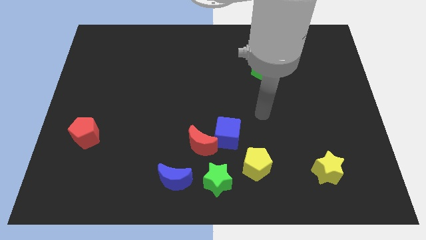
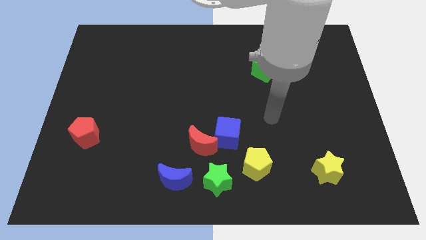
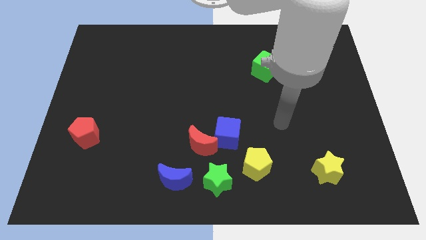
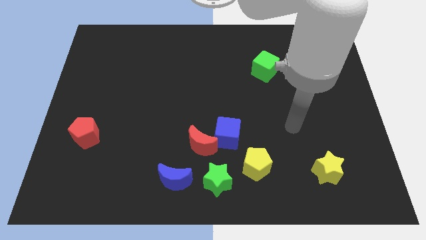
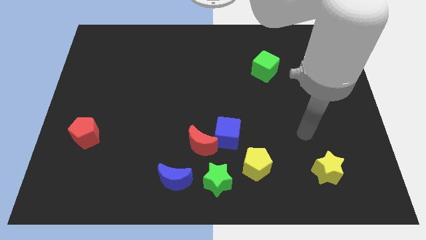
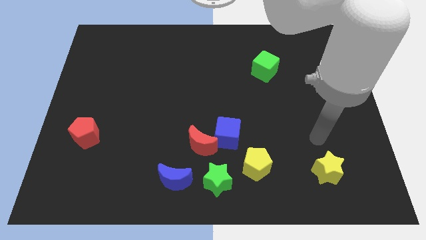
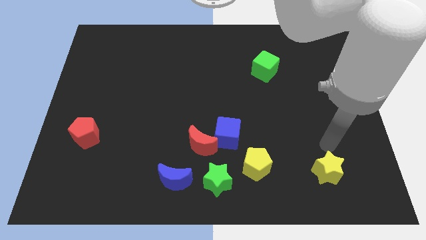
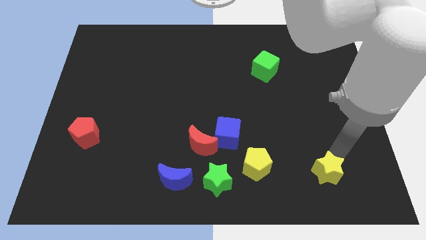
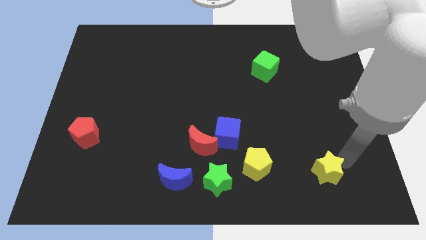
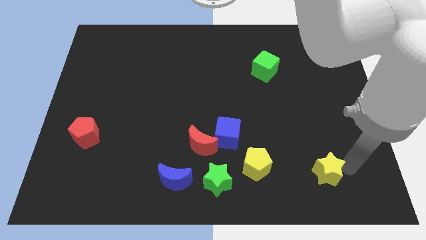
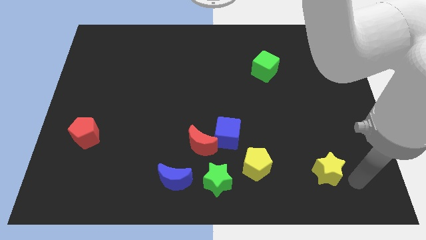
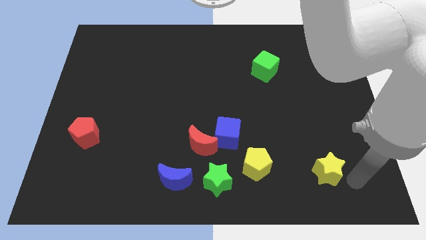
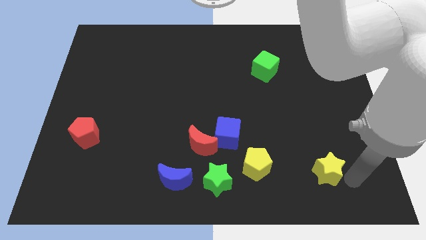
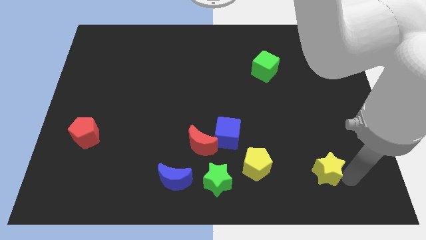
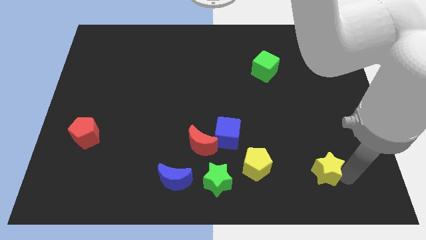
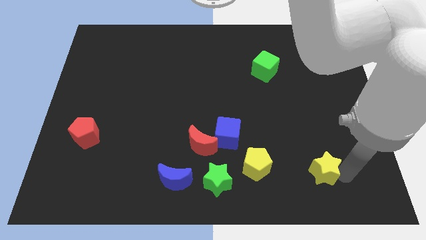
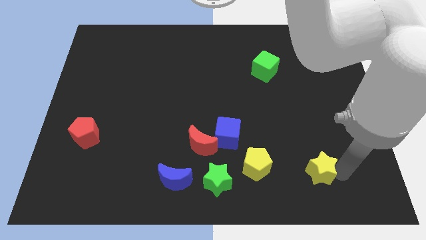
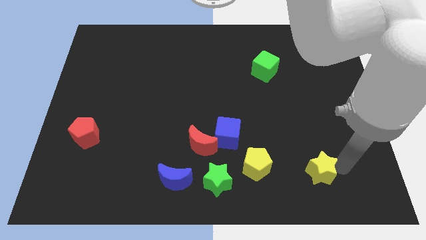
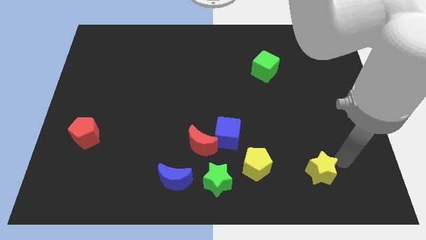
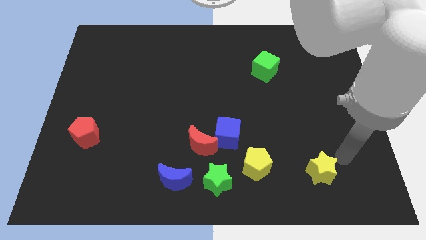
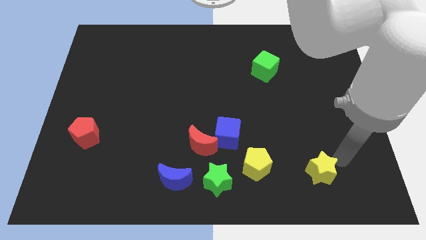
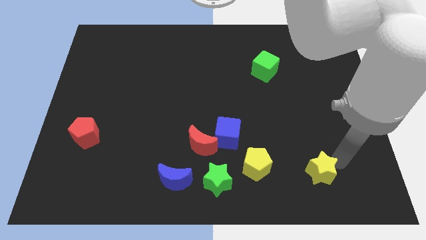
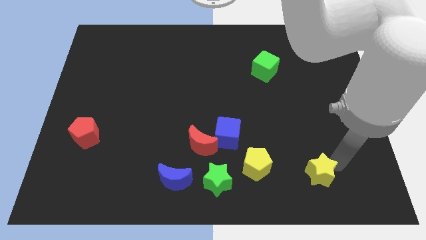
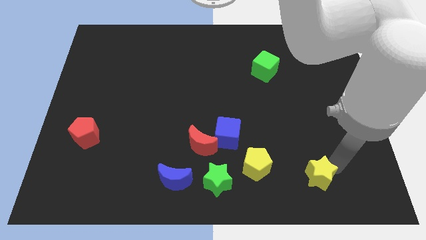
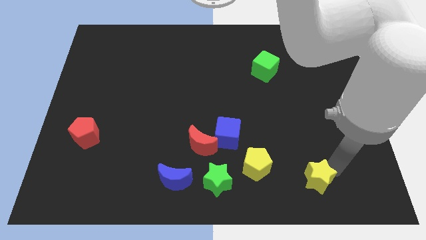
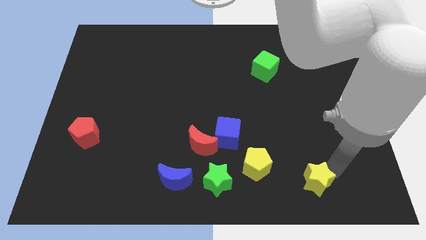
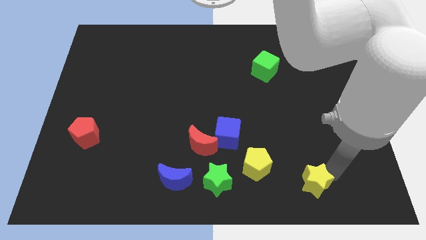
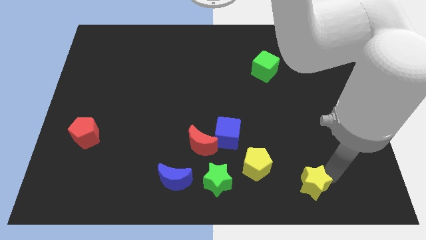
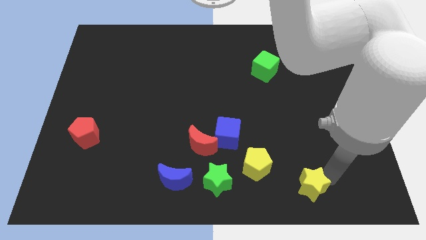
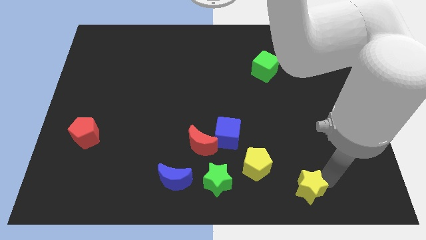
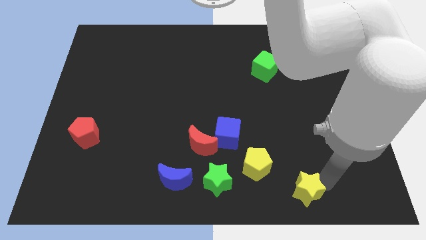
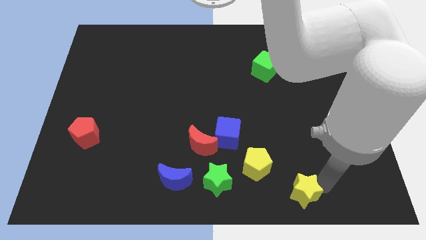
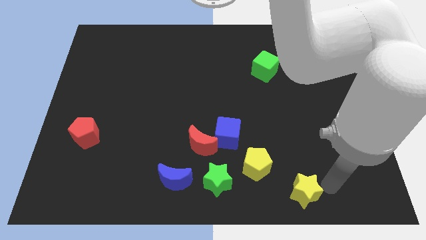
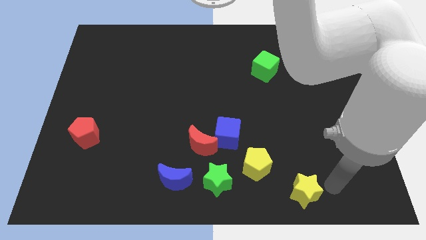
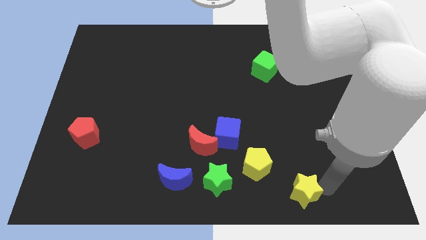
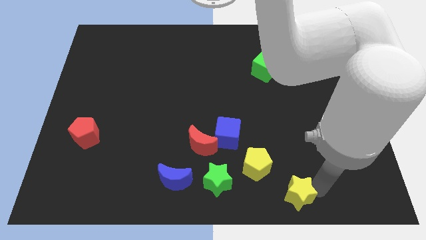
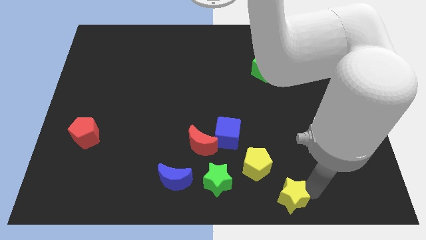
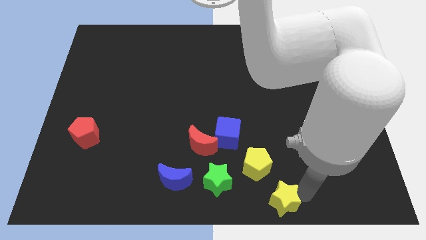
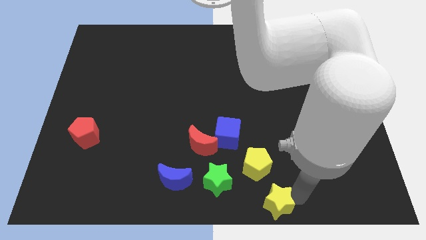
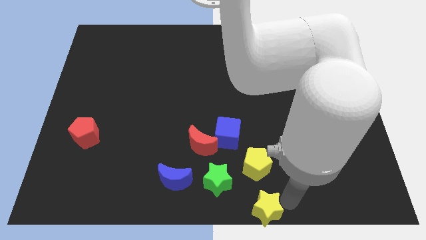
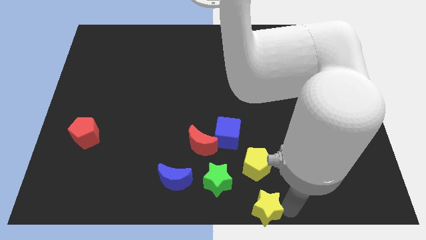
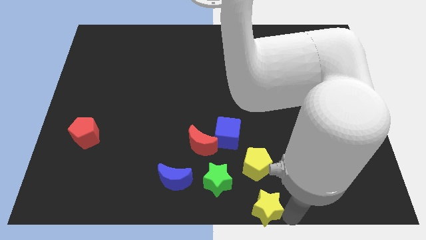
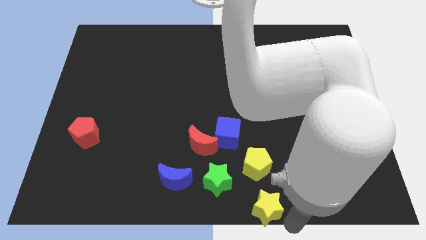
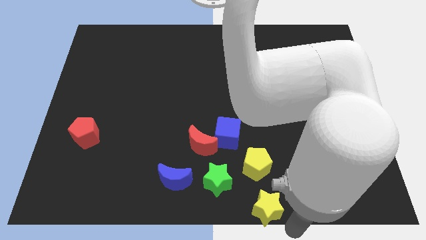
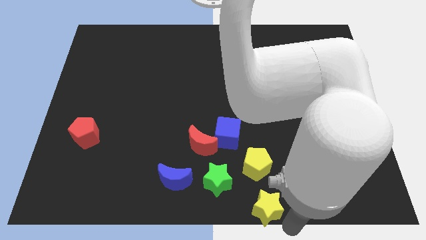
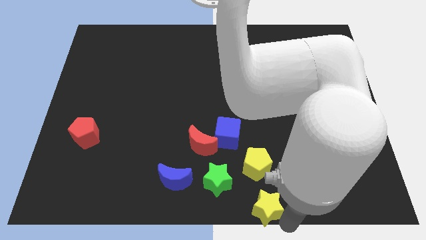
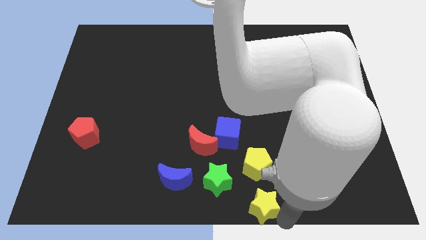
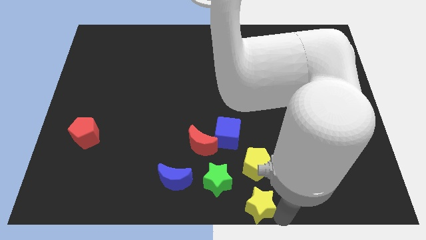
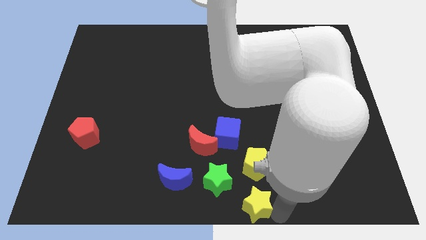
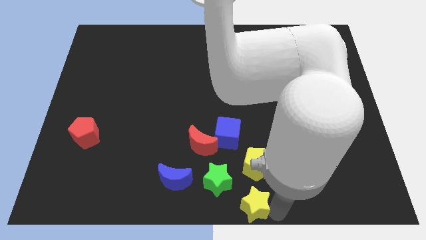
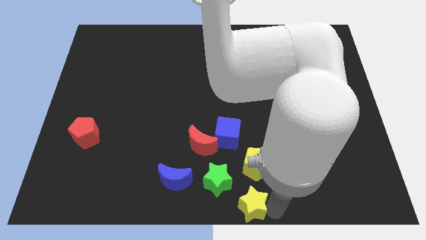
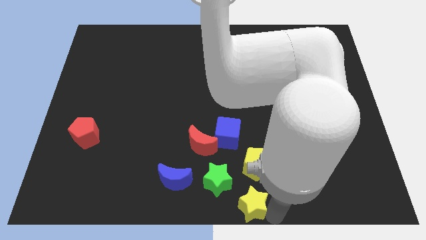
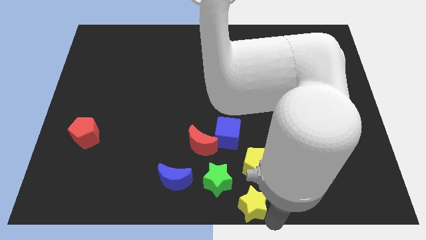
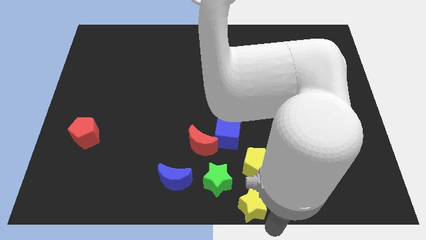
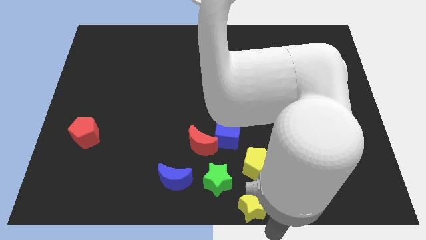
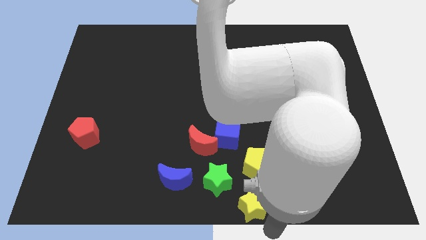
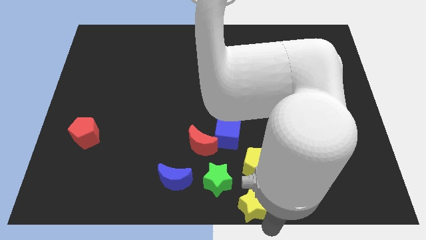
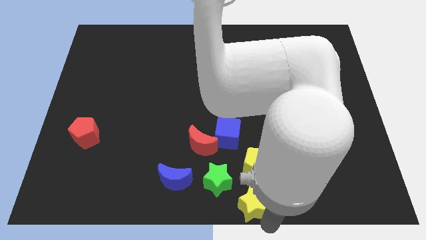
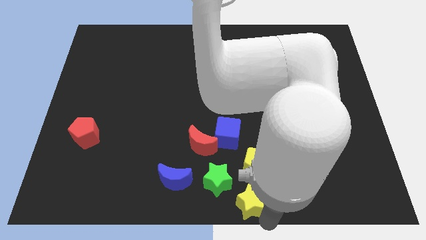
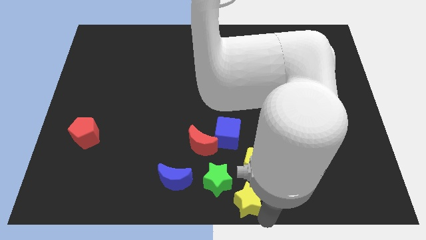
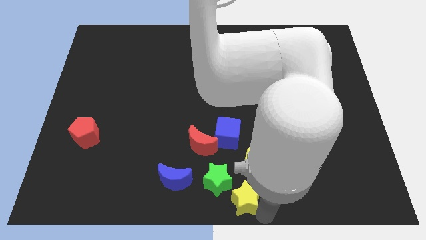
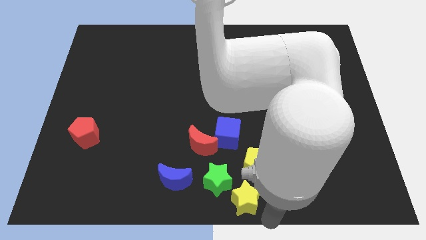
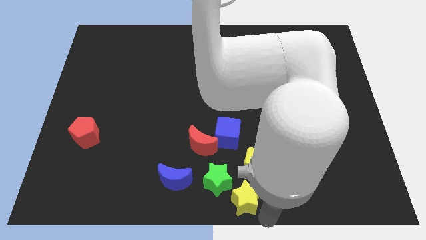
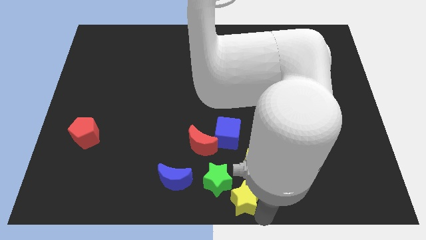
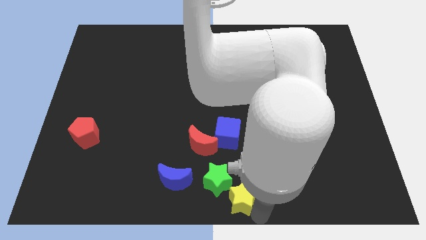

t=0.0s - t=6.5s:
push the yellow star next to the green star

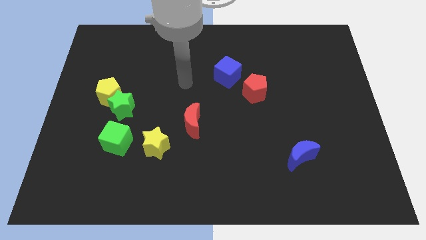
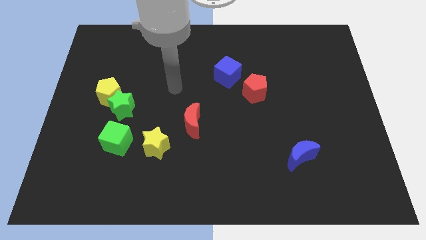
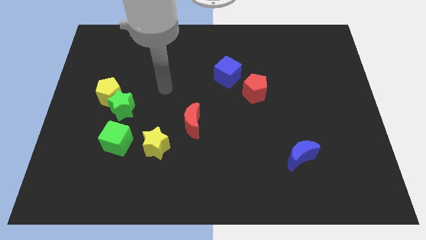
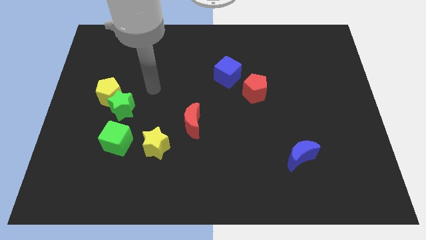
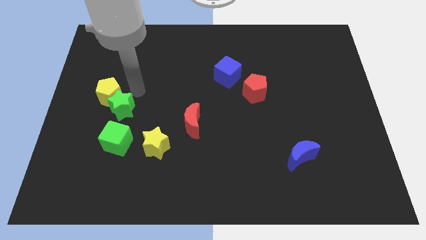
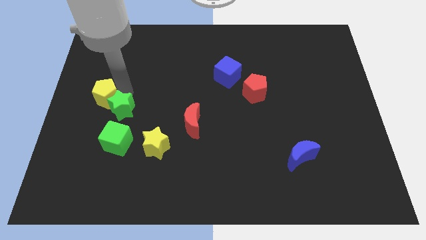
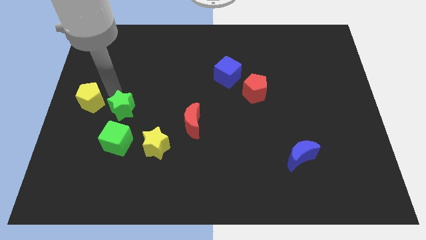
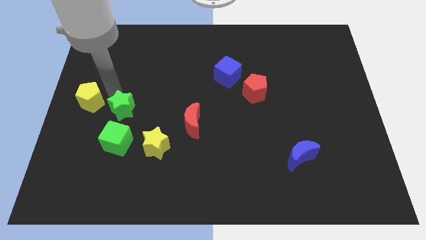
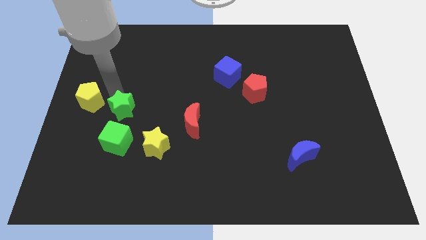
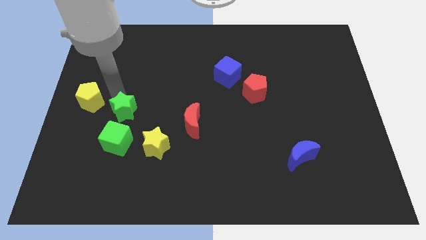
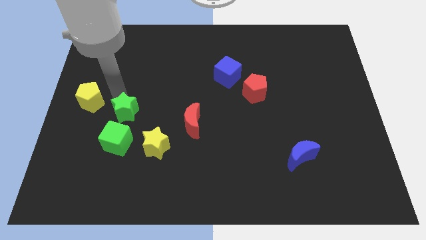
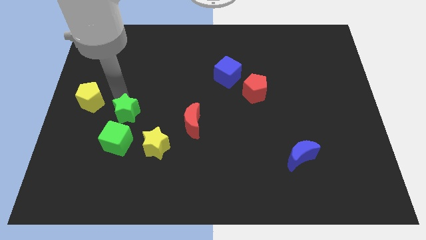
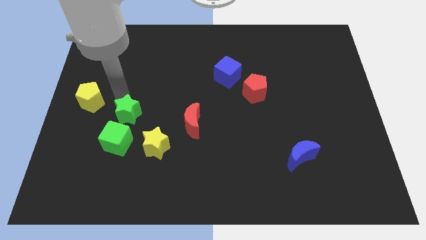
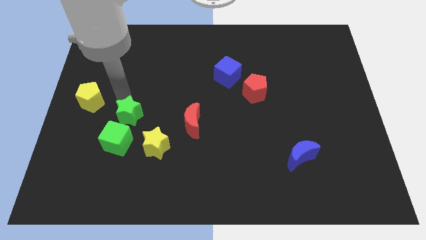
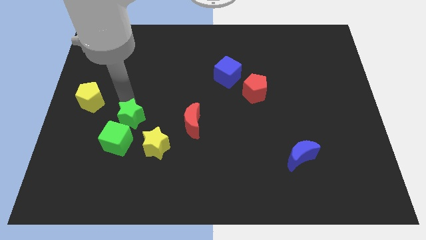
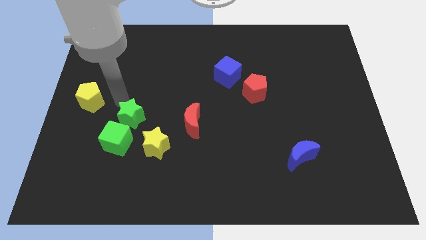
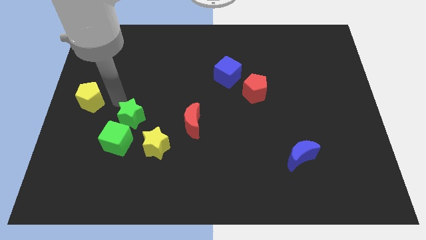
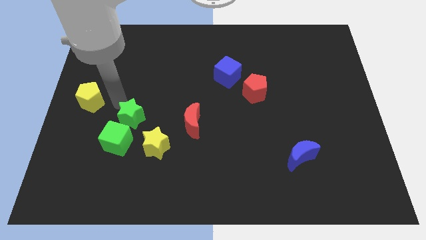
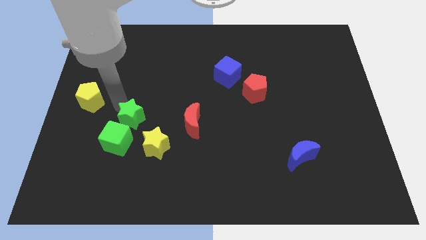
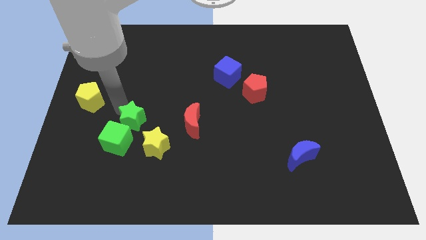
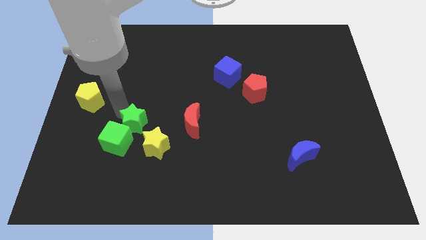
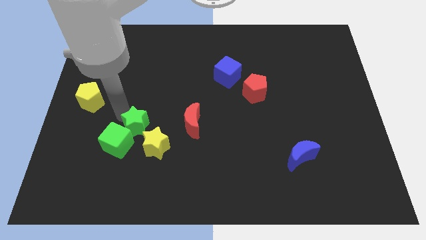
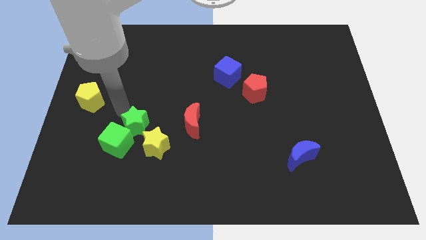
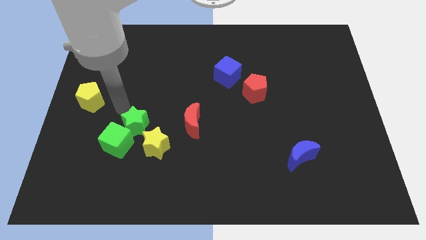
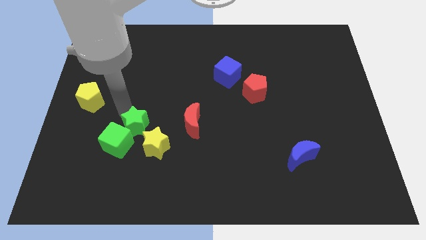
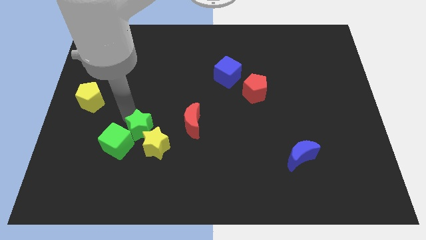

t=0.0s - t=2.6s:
move the green star close to the yellow star
